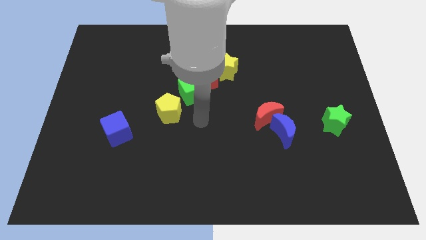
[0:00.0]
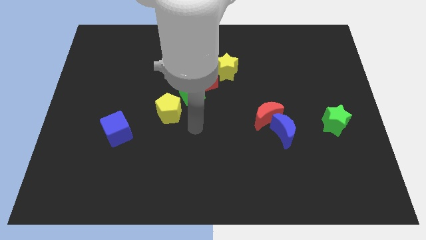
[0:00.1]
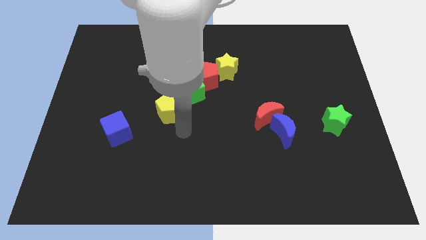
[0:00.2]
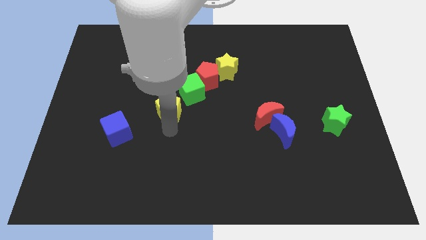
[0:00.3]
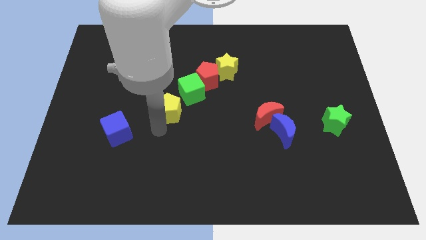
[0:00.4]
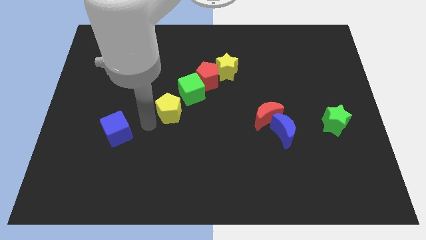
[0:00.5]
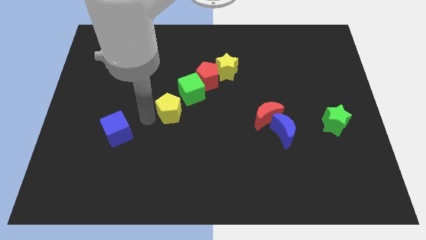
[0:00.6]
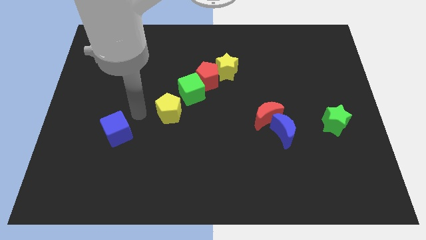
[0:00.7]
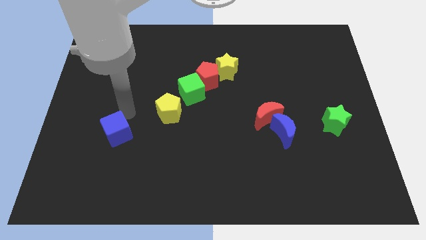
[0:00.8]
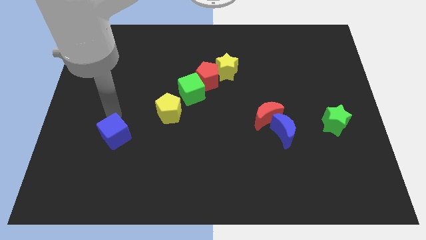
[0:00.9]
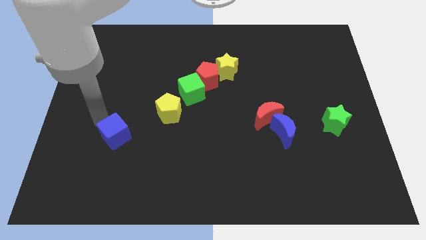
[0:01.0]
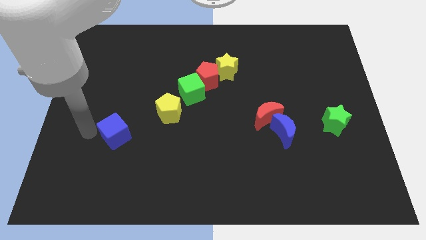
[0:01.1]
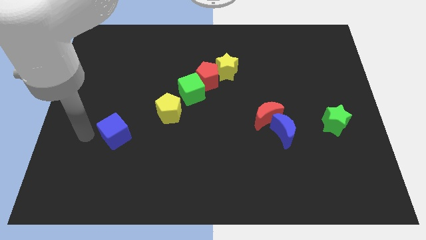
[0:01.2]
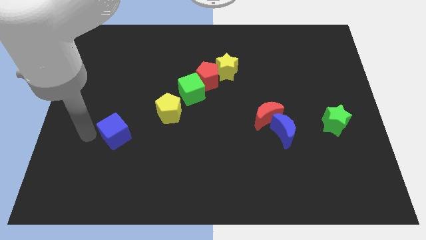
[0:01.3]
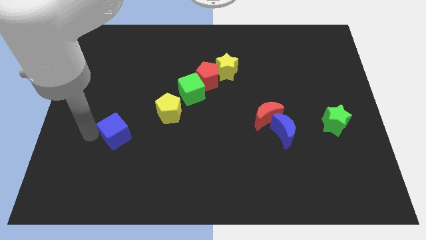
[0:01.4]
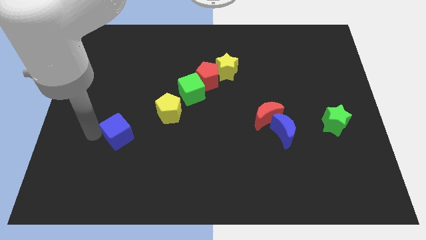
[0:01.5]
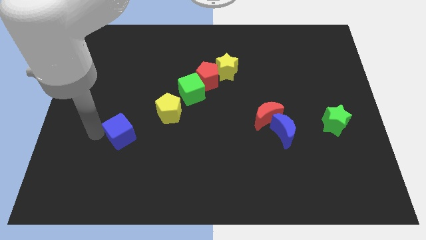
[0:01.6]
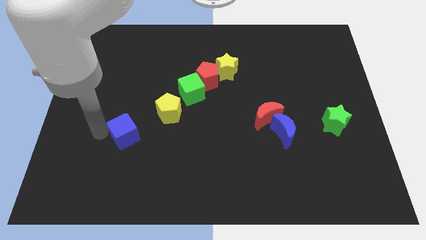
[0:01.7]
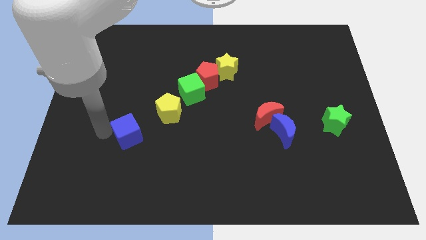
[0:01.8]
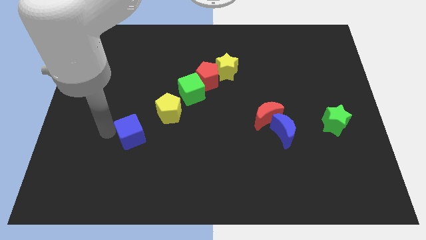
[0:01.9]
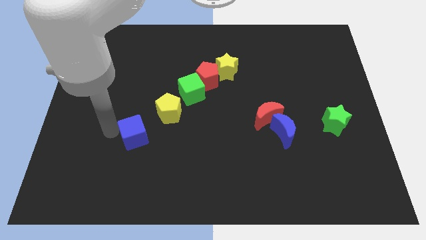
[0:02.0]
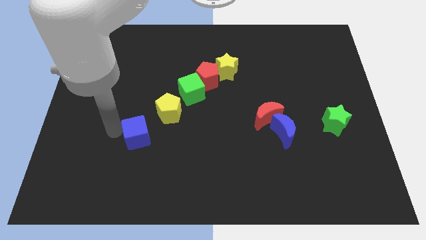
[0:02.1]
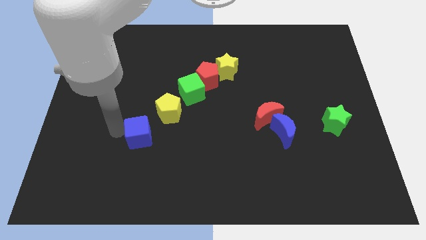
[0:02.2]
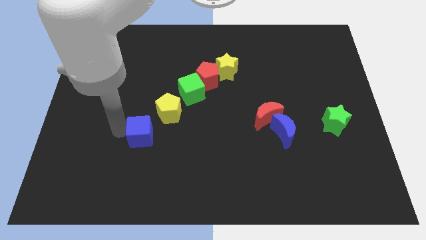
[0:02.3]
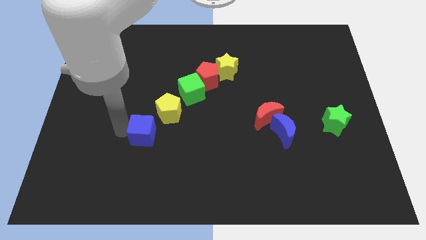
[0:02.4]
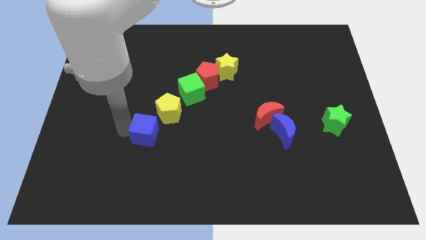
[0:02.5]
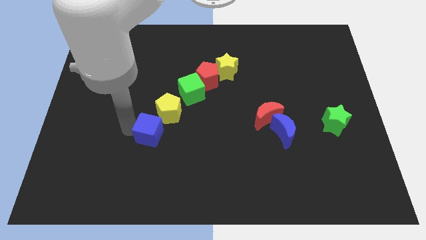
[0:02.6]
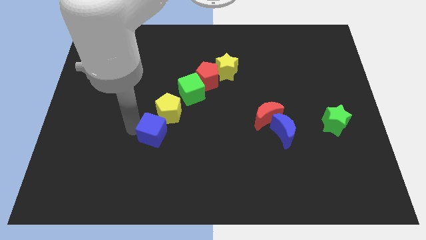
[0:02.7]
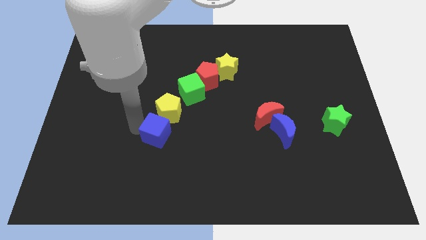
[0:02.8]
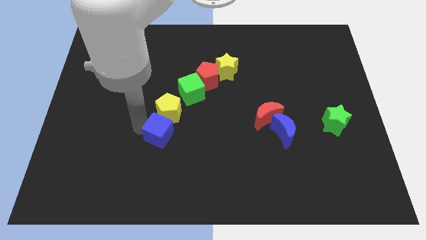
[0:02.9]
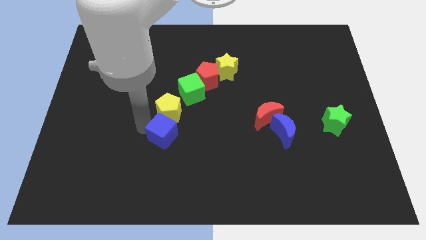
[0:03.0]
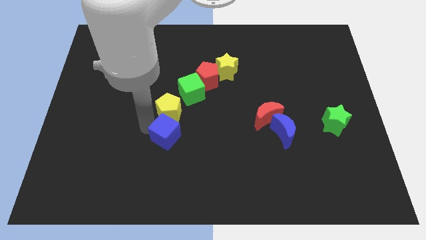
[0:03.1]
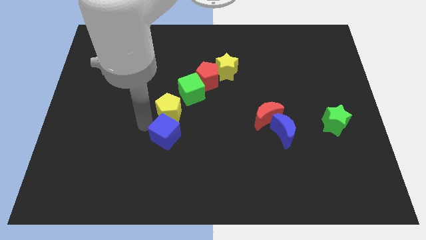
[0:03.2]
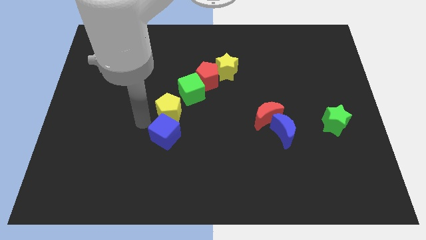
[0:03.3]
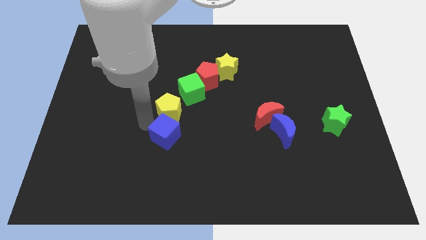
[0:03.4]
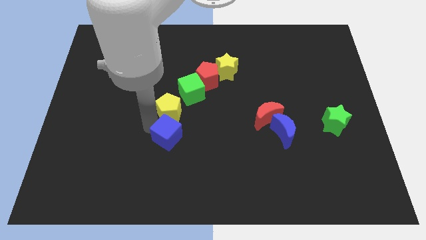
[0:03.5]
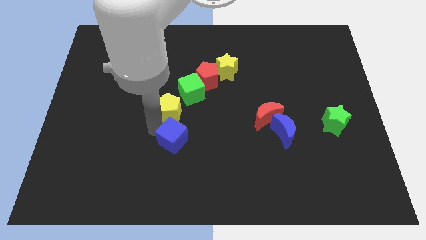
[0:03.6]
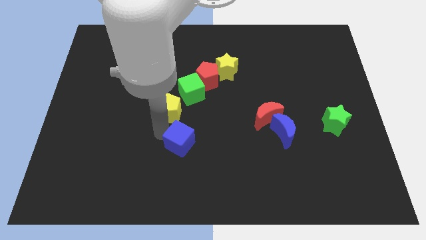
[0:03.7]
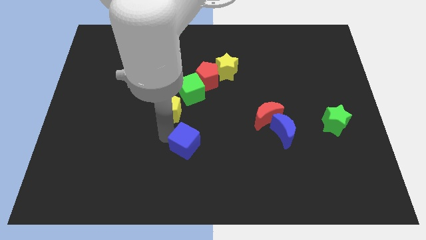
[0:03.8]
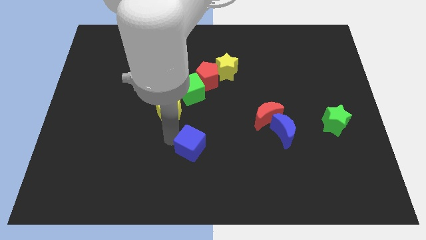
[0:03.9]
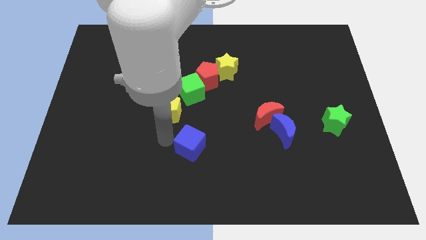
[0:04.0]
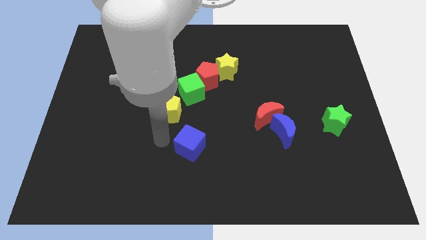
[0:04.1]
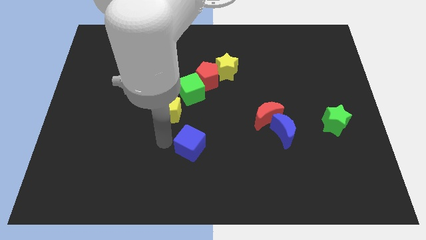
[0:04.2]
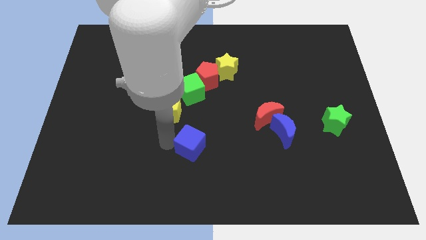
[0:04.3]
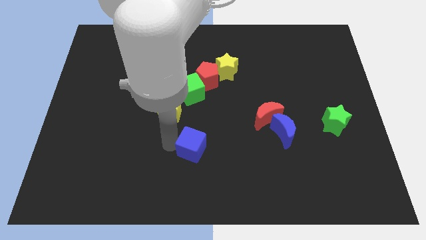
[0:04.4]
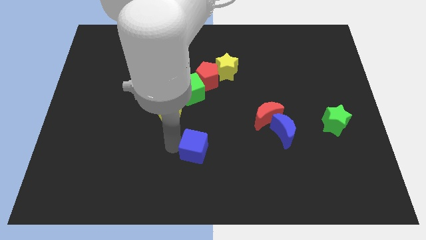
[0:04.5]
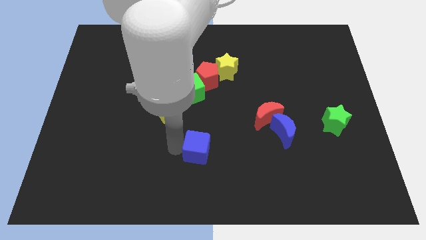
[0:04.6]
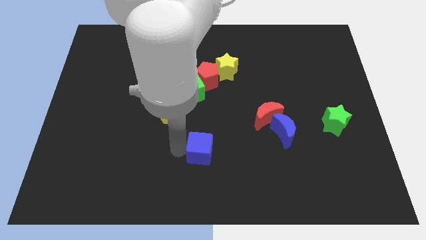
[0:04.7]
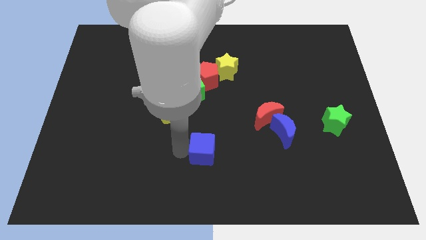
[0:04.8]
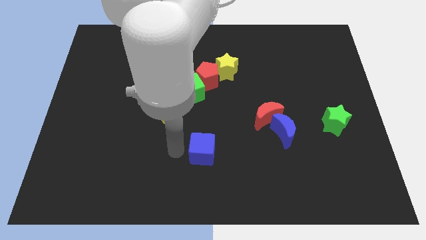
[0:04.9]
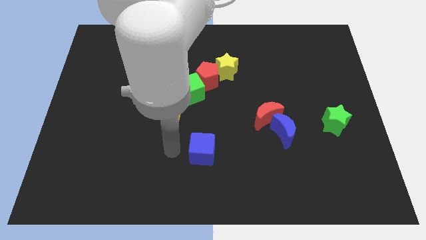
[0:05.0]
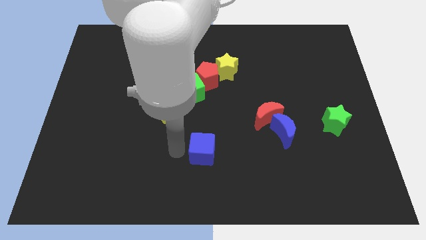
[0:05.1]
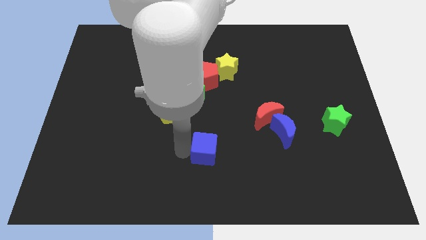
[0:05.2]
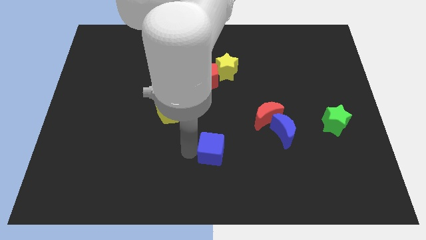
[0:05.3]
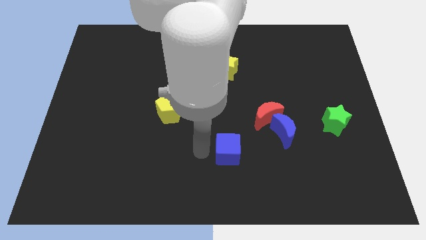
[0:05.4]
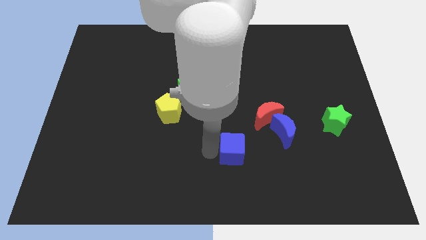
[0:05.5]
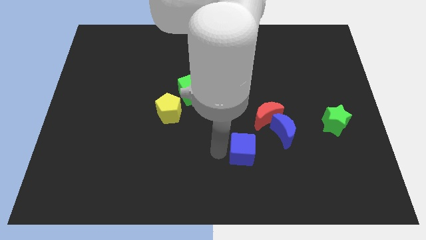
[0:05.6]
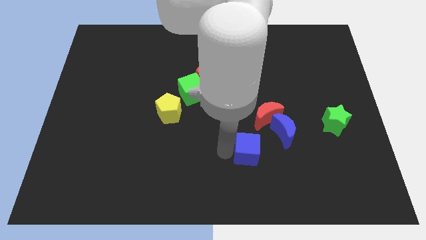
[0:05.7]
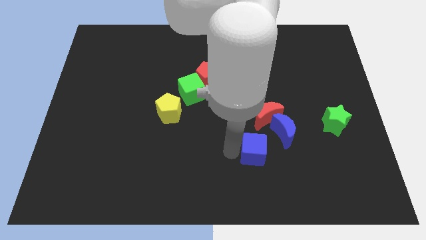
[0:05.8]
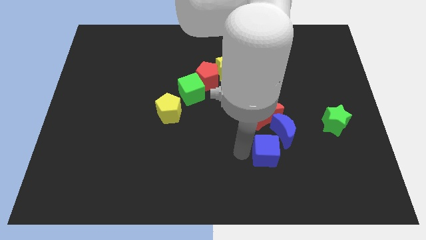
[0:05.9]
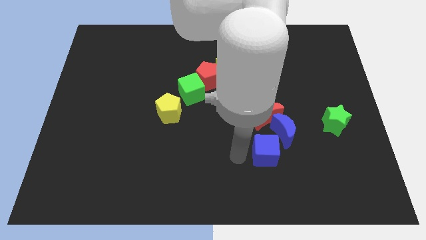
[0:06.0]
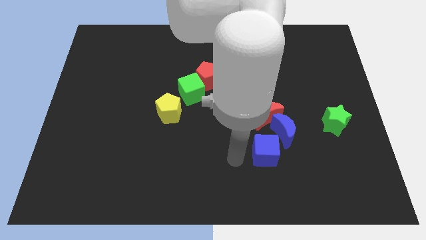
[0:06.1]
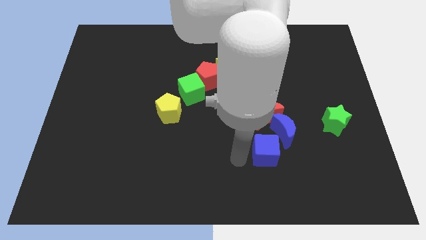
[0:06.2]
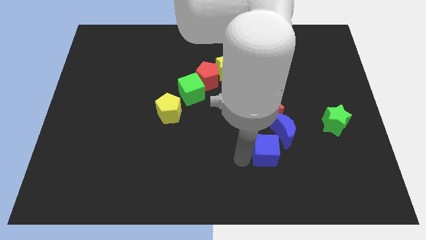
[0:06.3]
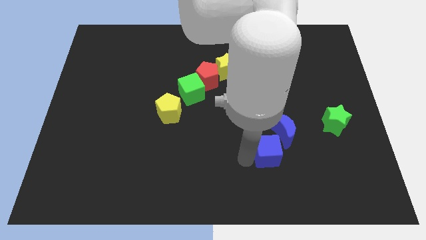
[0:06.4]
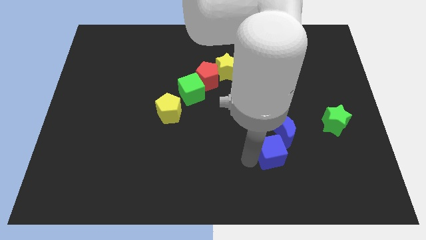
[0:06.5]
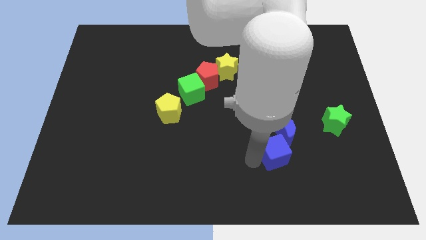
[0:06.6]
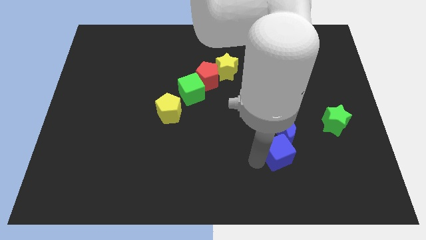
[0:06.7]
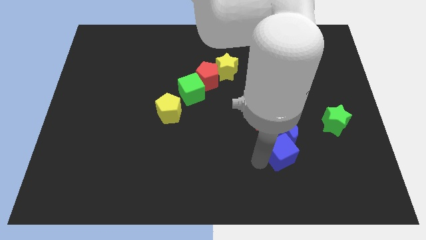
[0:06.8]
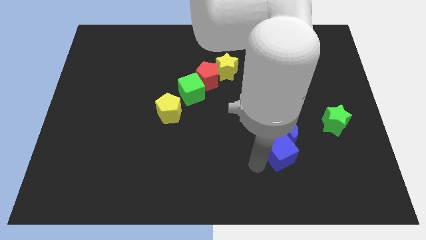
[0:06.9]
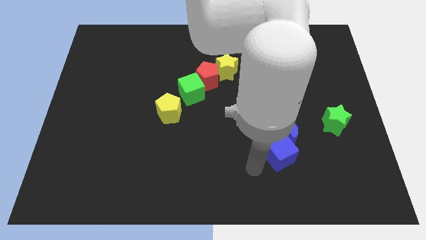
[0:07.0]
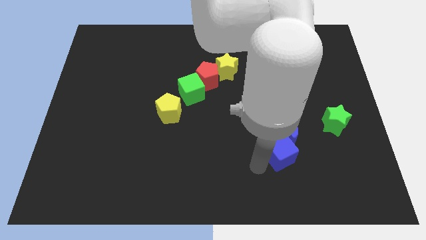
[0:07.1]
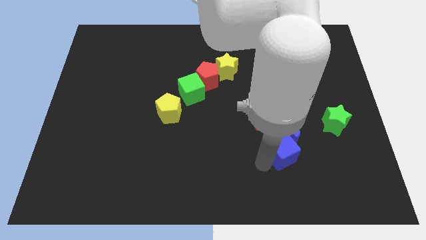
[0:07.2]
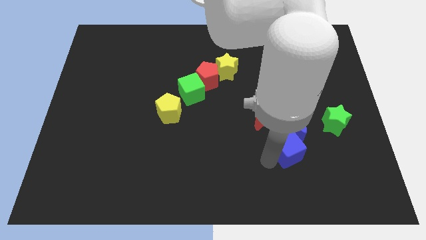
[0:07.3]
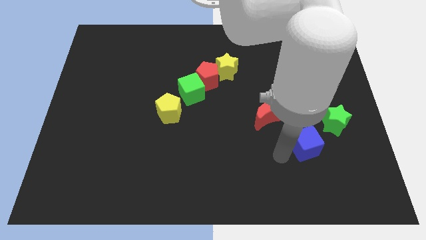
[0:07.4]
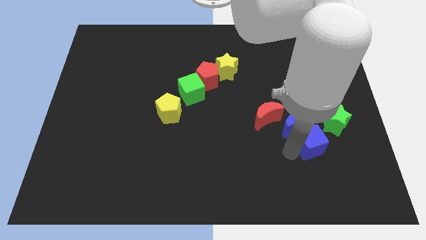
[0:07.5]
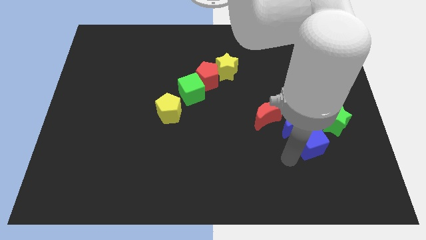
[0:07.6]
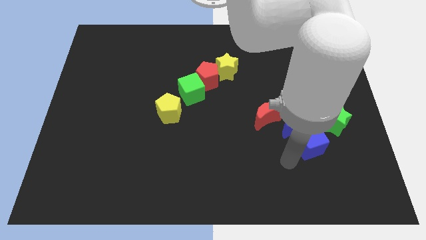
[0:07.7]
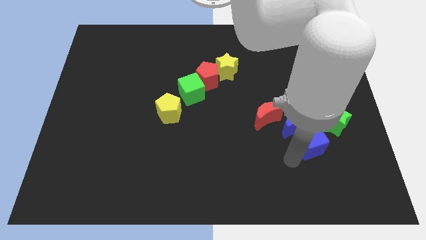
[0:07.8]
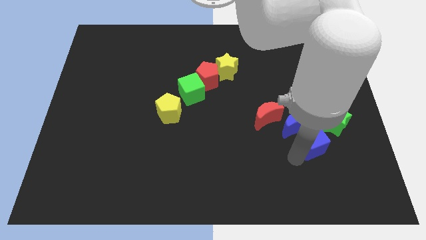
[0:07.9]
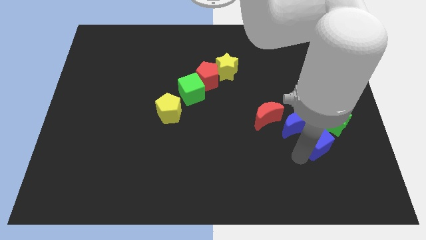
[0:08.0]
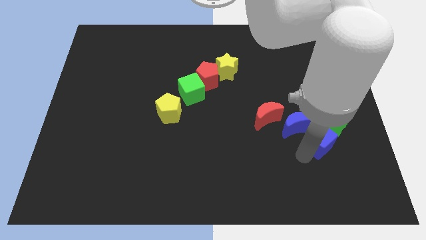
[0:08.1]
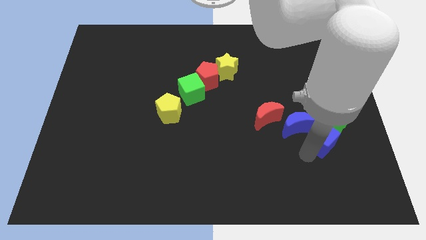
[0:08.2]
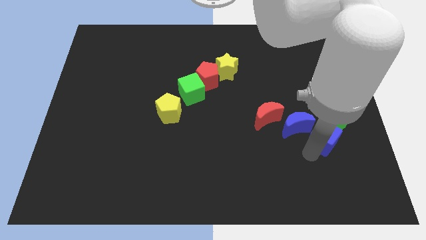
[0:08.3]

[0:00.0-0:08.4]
put the blue cube close to the green star
